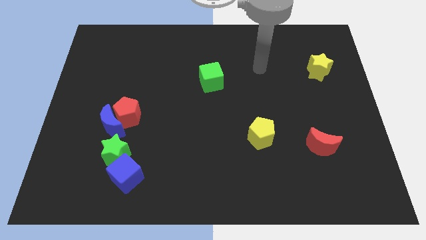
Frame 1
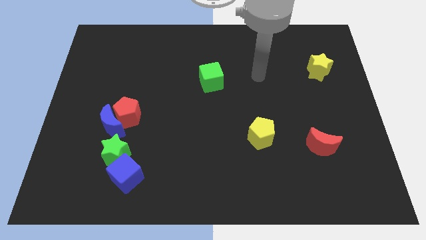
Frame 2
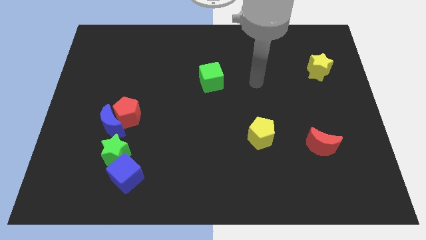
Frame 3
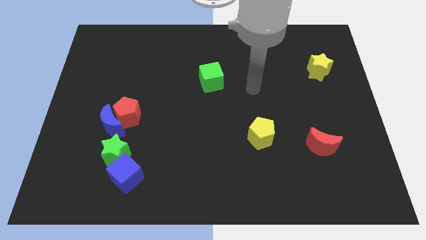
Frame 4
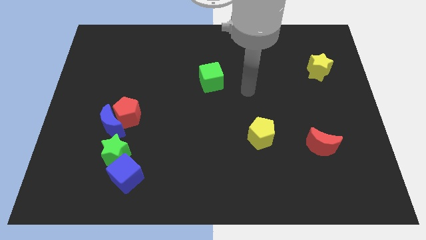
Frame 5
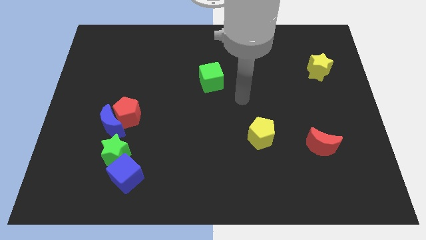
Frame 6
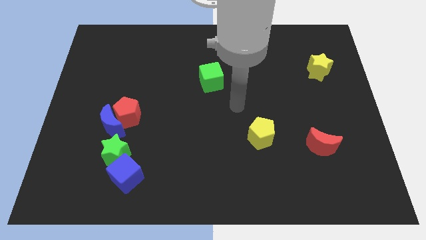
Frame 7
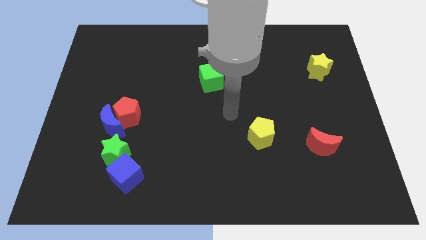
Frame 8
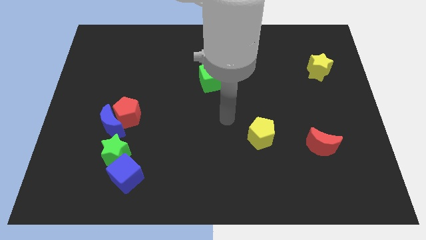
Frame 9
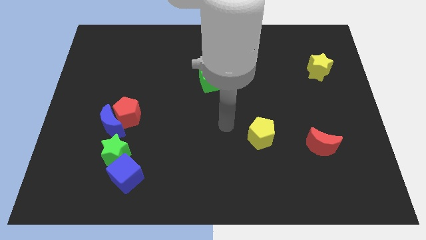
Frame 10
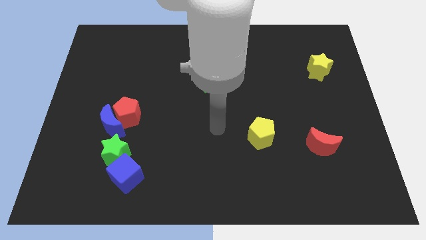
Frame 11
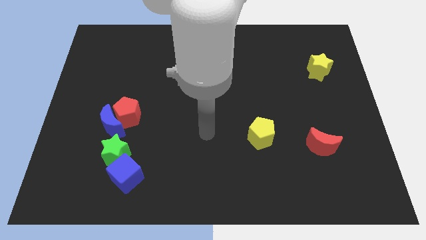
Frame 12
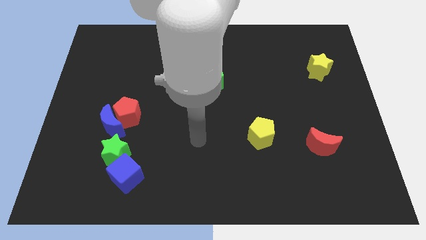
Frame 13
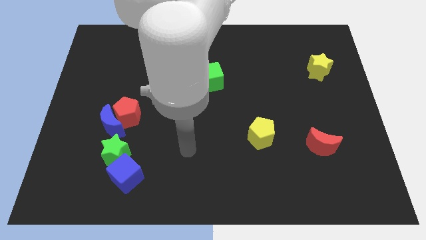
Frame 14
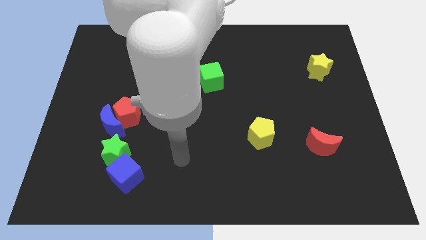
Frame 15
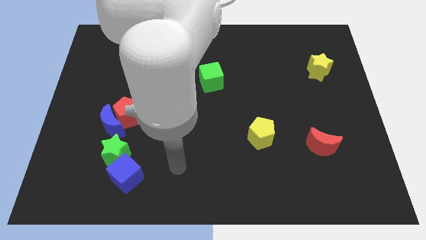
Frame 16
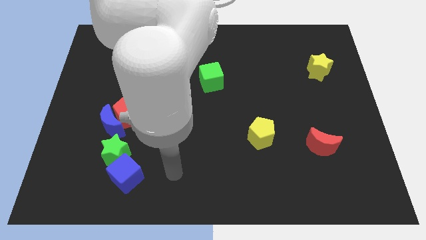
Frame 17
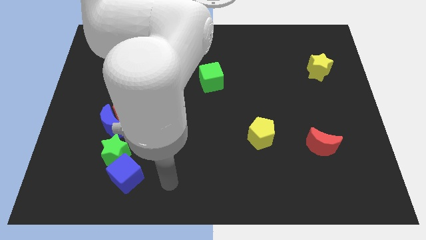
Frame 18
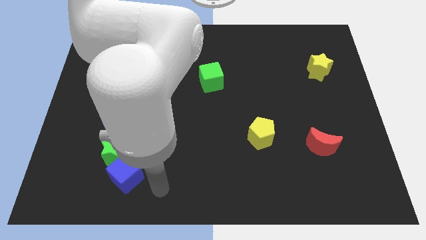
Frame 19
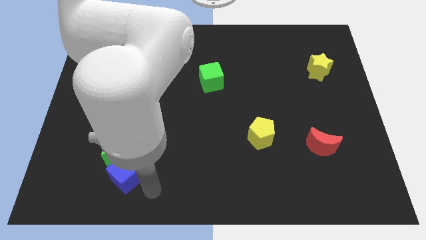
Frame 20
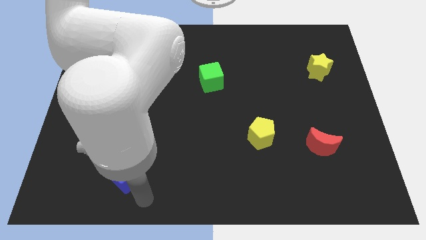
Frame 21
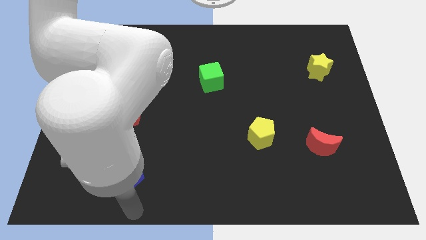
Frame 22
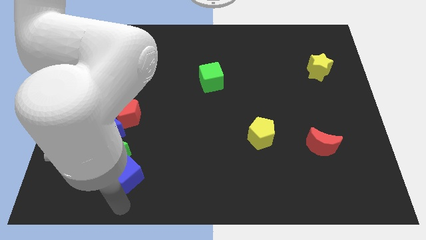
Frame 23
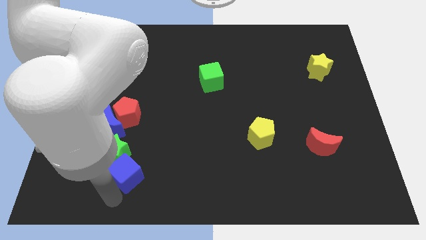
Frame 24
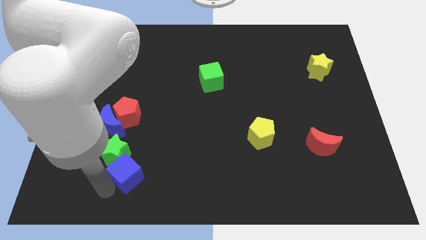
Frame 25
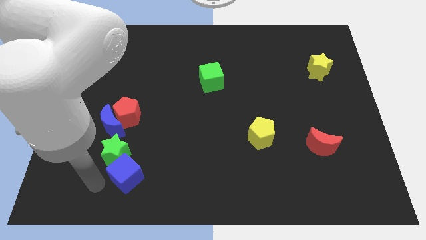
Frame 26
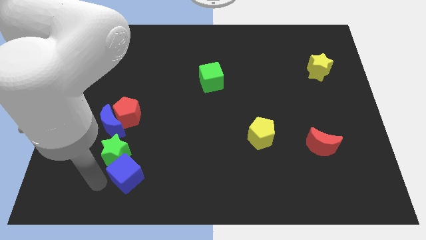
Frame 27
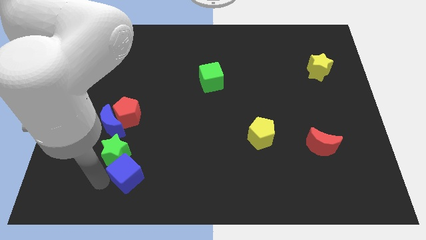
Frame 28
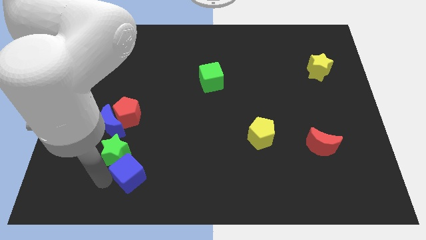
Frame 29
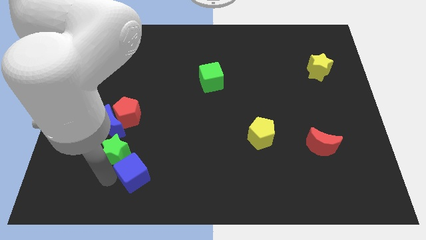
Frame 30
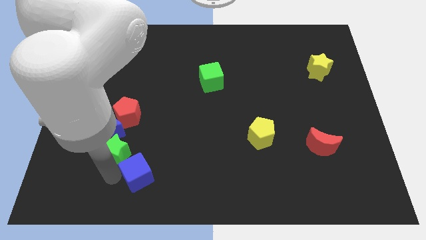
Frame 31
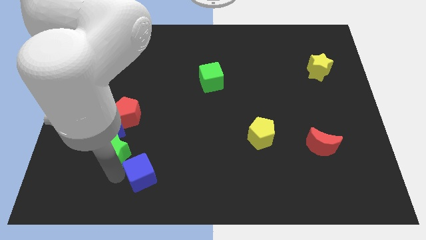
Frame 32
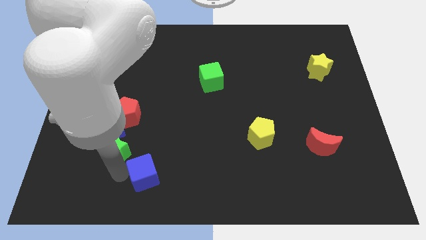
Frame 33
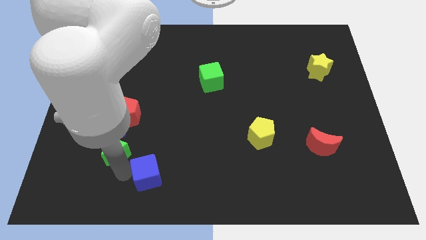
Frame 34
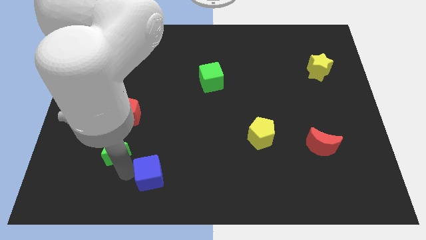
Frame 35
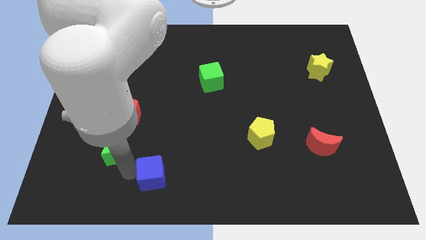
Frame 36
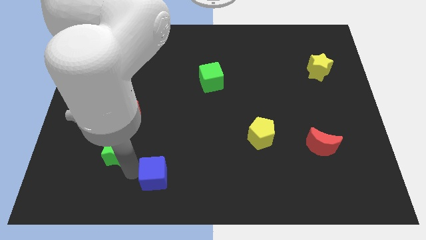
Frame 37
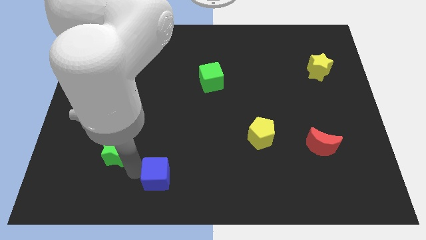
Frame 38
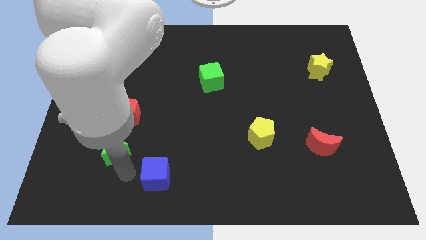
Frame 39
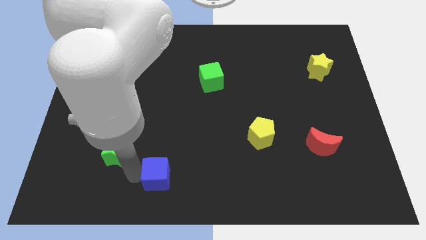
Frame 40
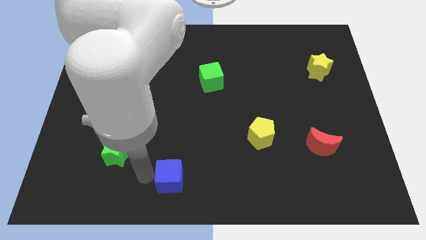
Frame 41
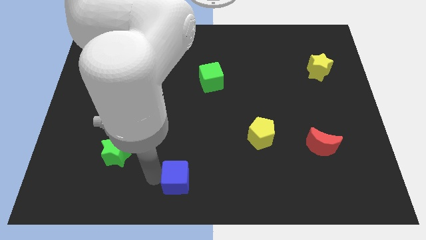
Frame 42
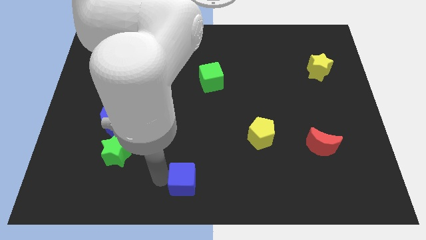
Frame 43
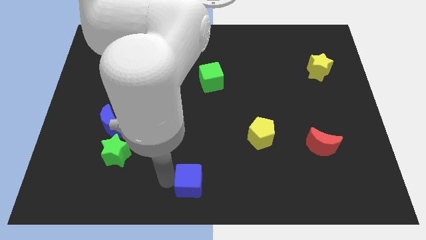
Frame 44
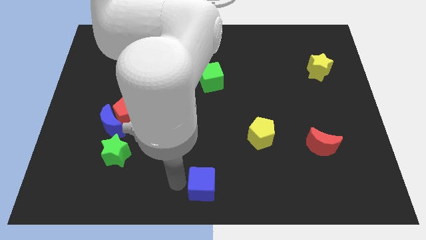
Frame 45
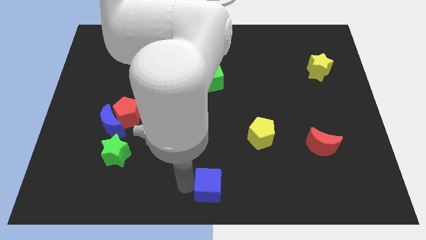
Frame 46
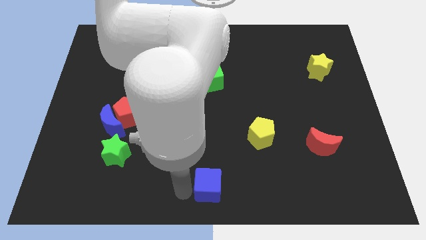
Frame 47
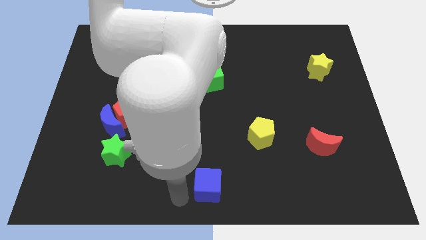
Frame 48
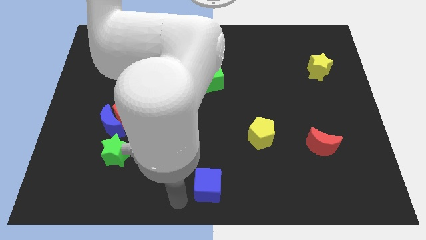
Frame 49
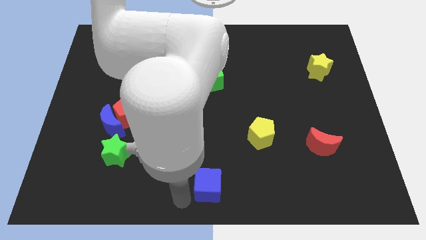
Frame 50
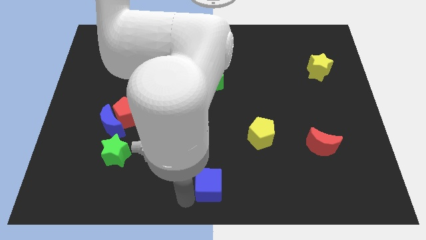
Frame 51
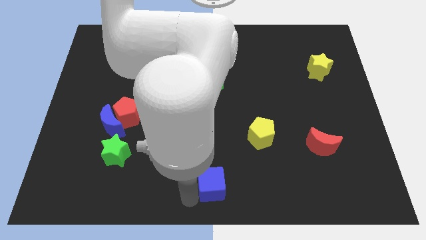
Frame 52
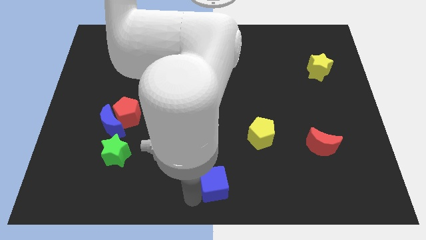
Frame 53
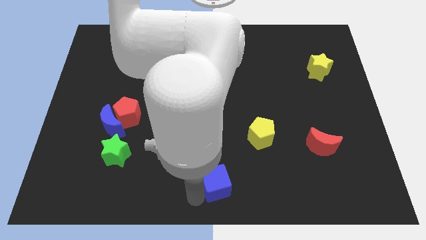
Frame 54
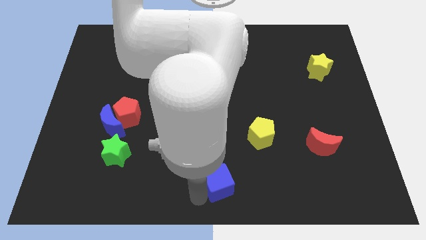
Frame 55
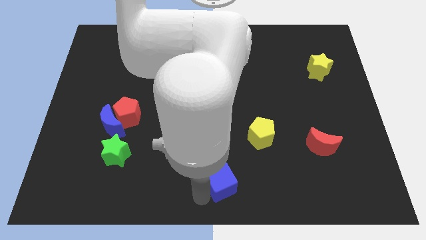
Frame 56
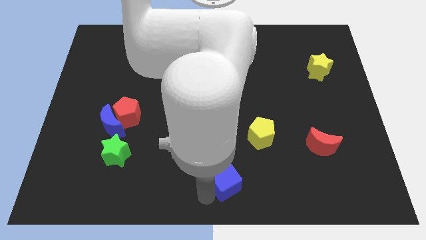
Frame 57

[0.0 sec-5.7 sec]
move the blue cube to the right

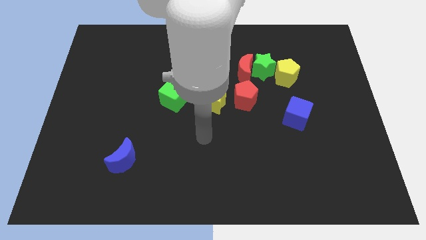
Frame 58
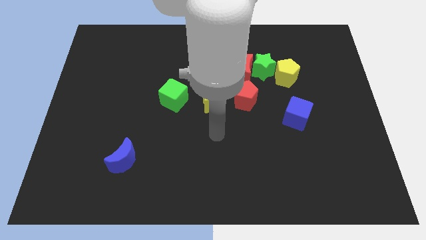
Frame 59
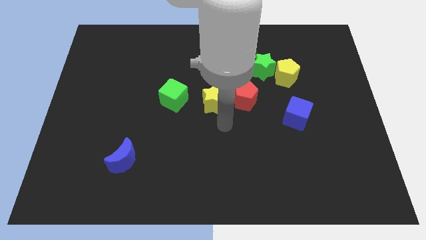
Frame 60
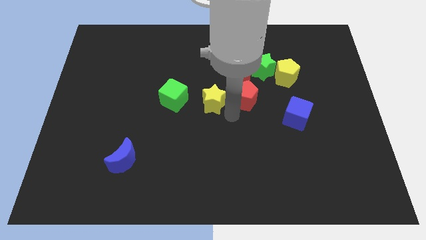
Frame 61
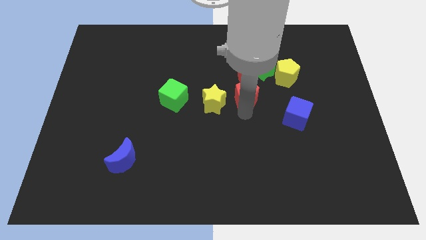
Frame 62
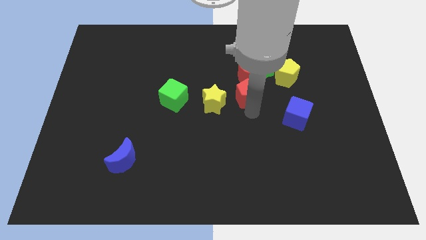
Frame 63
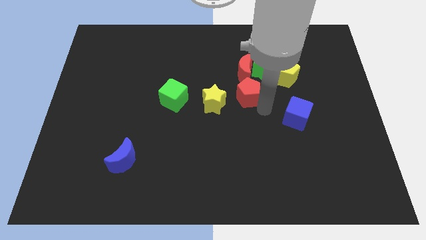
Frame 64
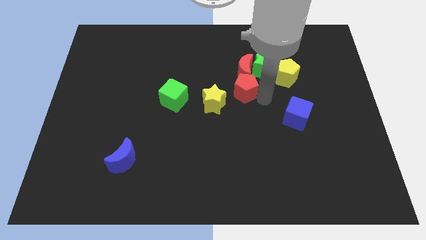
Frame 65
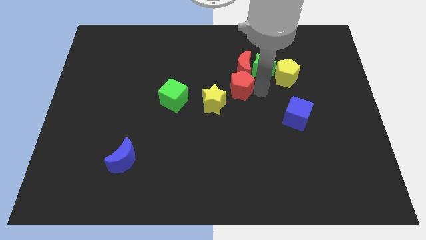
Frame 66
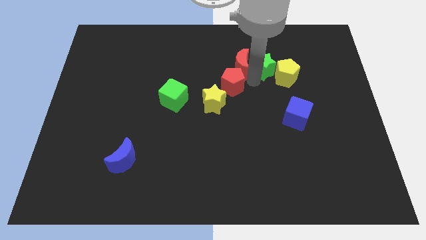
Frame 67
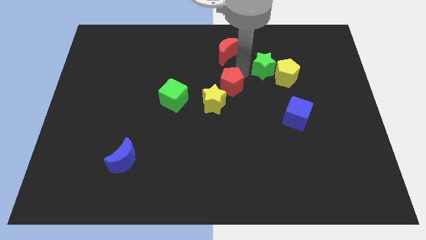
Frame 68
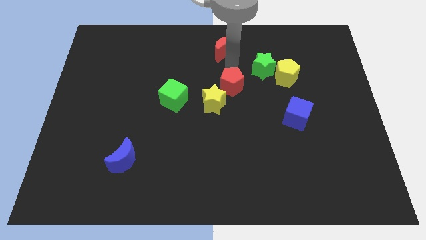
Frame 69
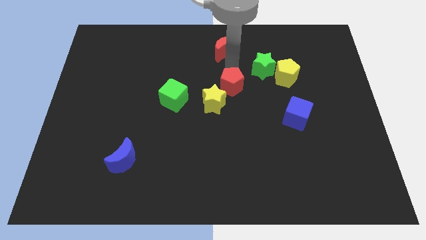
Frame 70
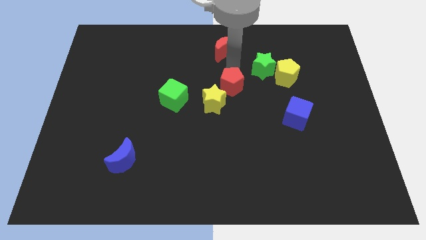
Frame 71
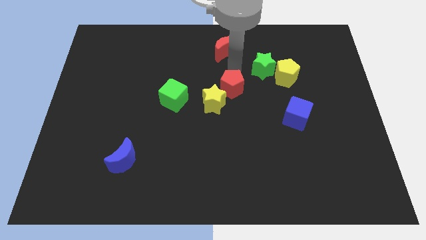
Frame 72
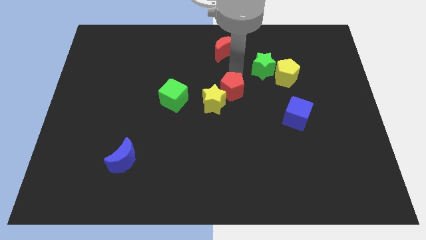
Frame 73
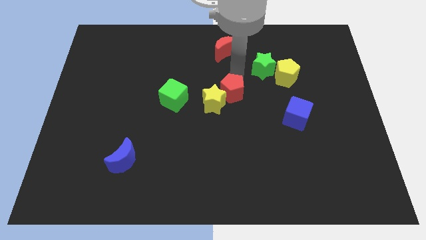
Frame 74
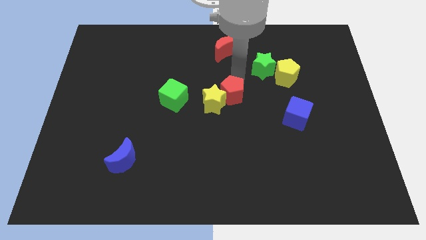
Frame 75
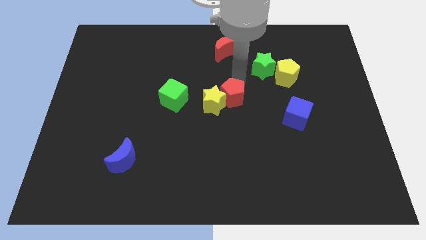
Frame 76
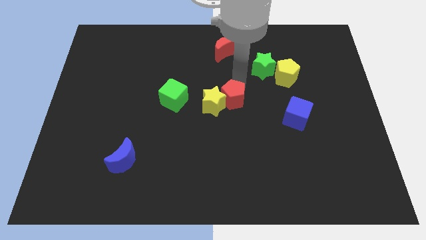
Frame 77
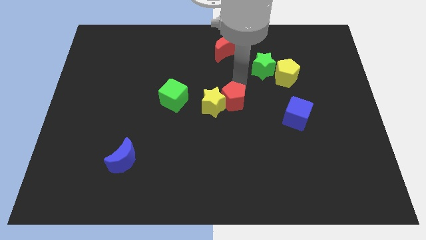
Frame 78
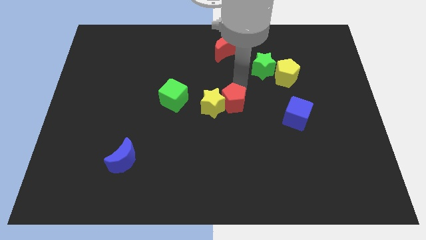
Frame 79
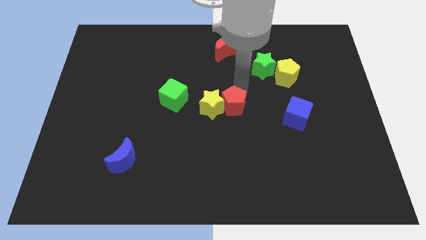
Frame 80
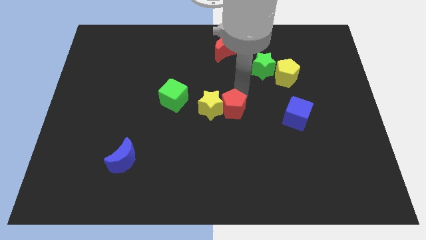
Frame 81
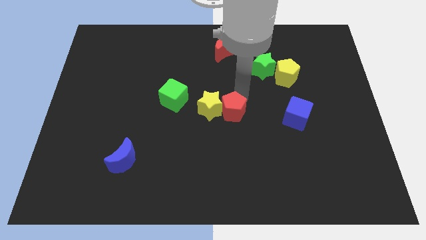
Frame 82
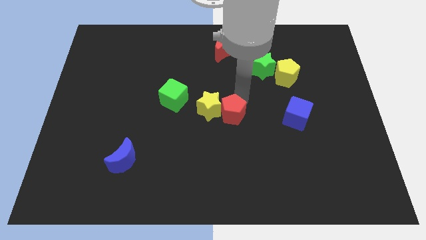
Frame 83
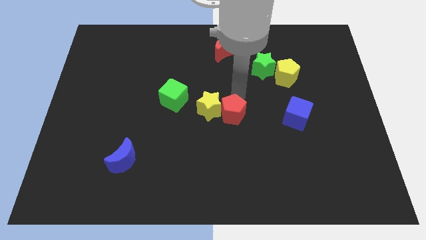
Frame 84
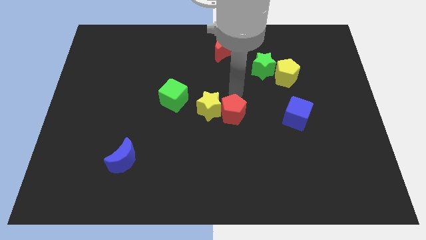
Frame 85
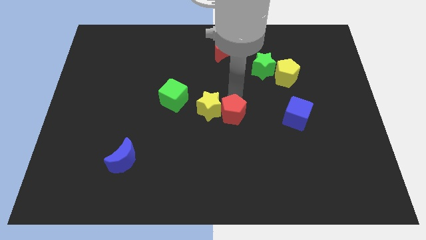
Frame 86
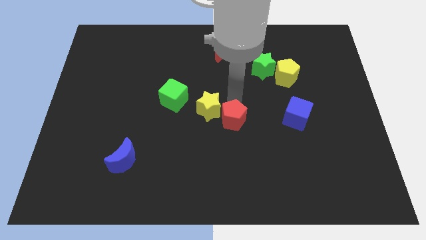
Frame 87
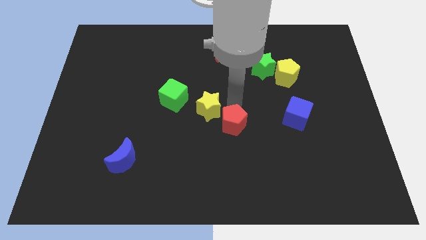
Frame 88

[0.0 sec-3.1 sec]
push the red pentagon downwards somewhat
